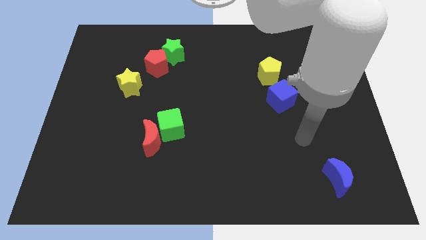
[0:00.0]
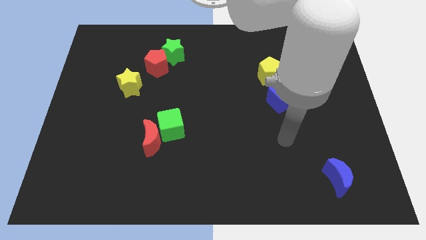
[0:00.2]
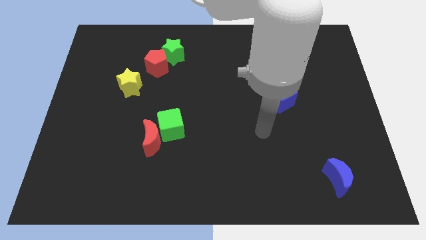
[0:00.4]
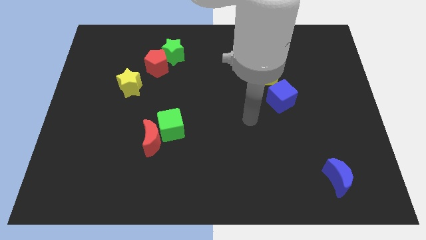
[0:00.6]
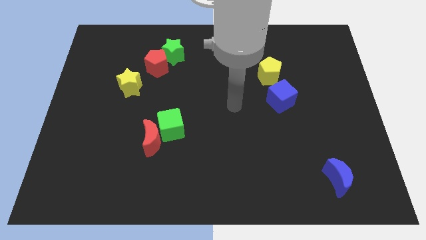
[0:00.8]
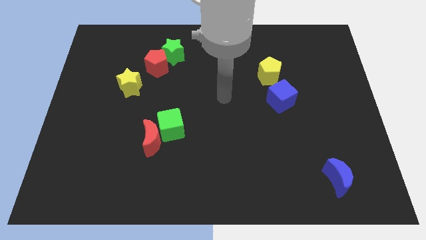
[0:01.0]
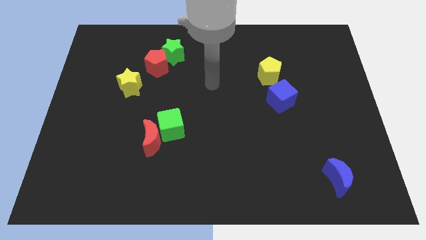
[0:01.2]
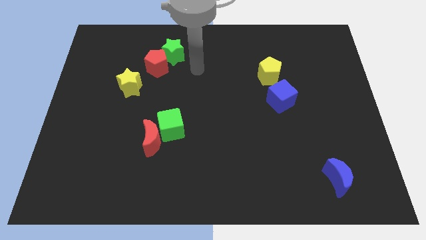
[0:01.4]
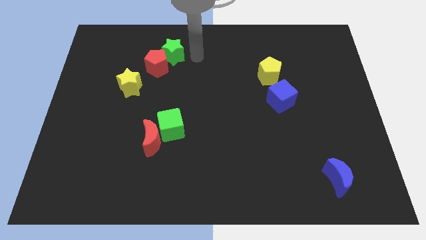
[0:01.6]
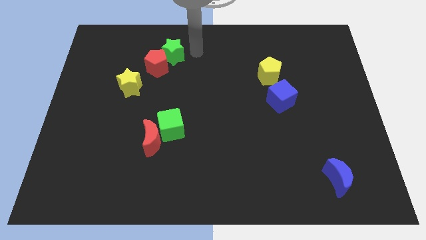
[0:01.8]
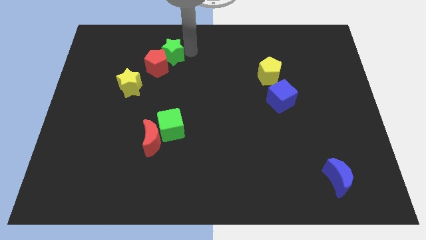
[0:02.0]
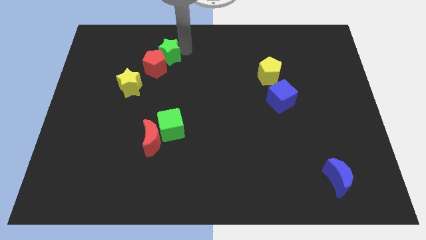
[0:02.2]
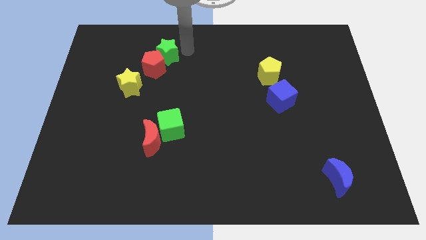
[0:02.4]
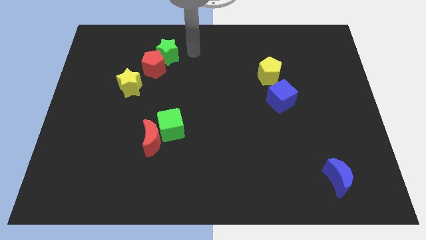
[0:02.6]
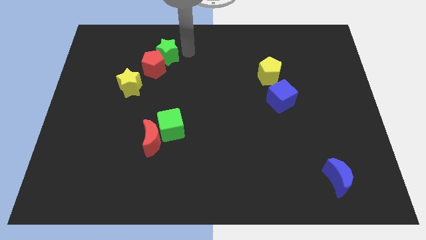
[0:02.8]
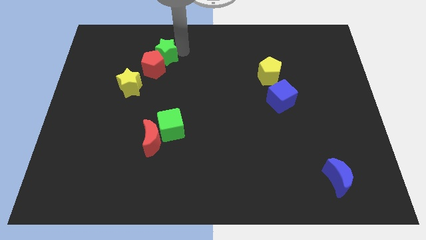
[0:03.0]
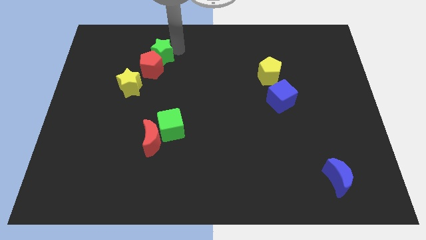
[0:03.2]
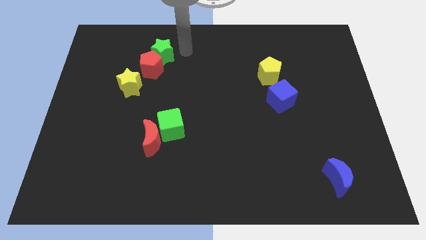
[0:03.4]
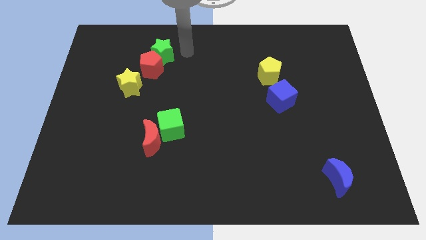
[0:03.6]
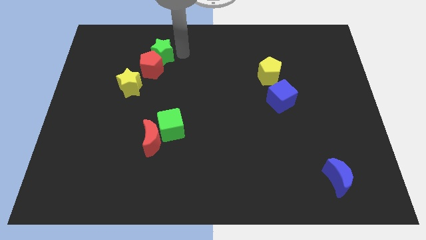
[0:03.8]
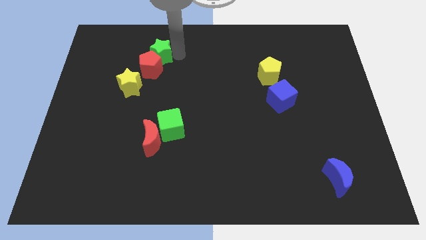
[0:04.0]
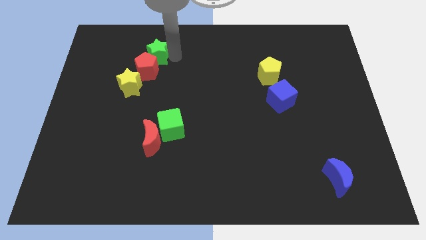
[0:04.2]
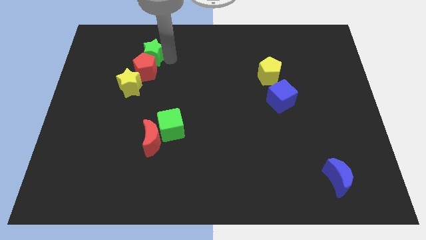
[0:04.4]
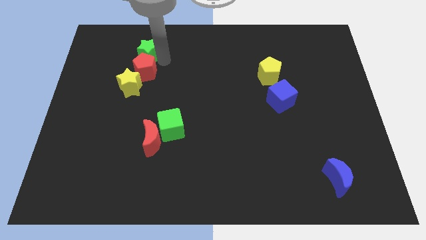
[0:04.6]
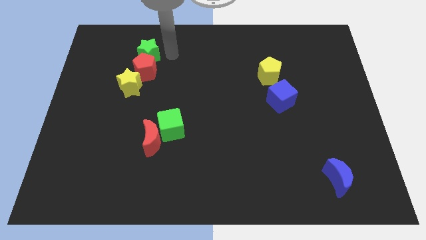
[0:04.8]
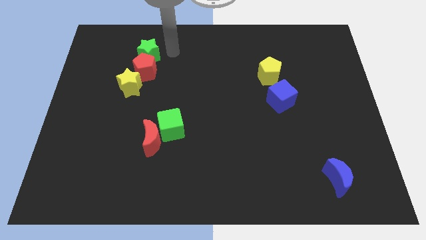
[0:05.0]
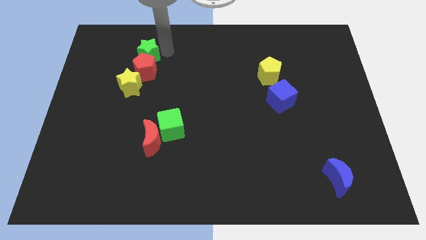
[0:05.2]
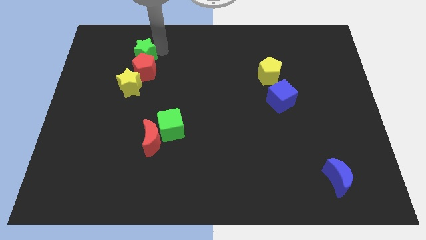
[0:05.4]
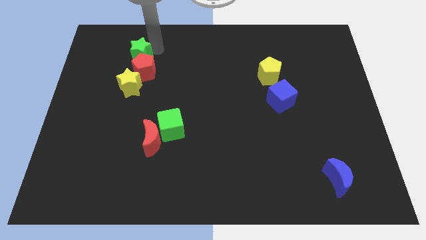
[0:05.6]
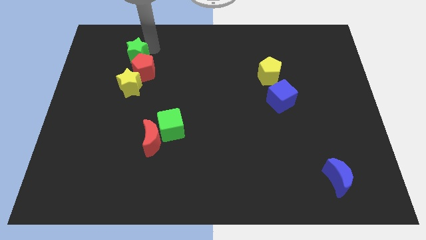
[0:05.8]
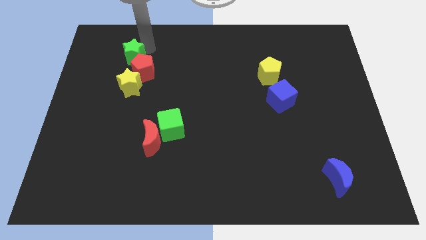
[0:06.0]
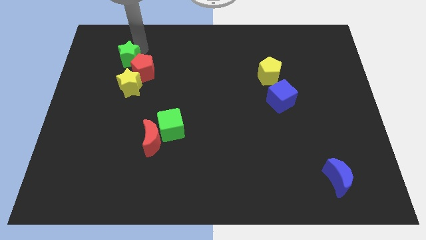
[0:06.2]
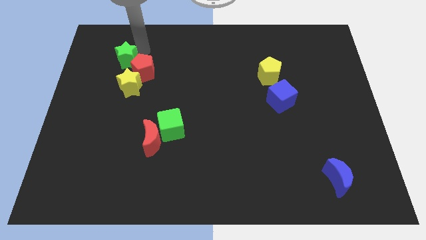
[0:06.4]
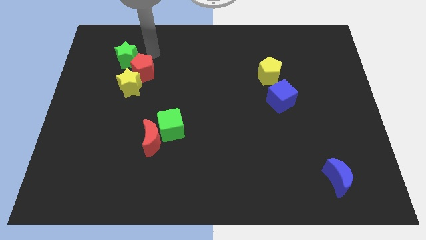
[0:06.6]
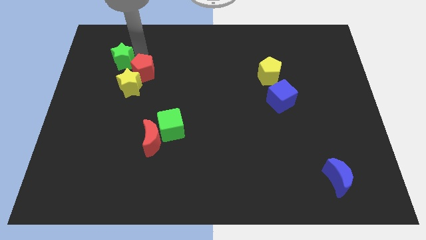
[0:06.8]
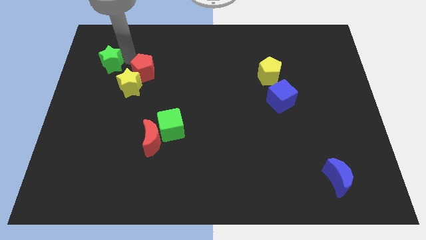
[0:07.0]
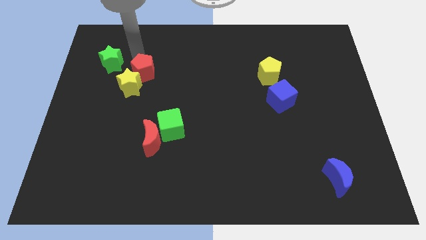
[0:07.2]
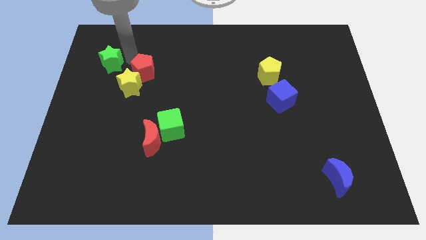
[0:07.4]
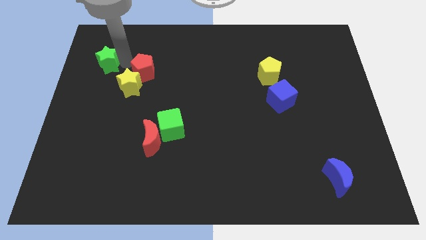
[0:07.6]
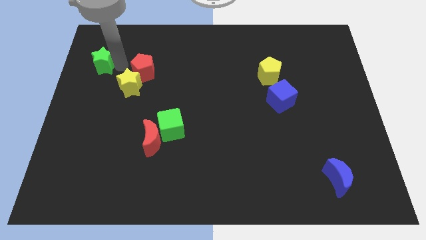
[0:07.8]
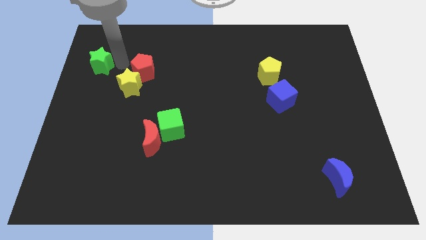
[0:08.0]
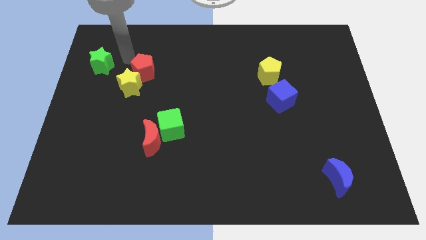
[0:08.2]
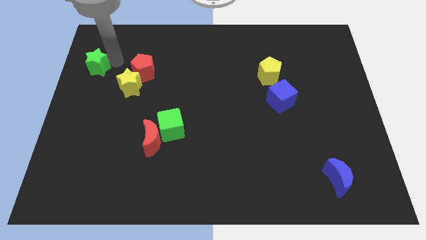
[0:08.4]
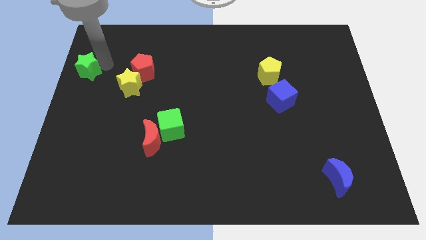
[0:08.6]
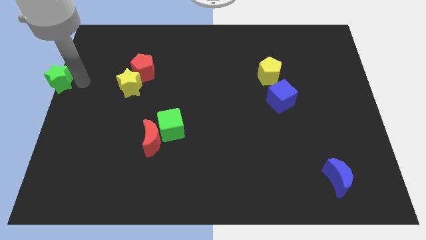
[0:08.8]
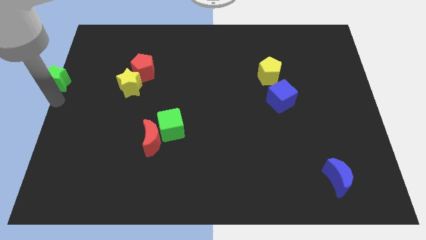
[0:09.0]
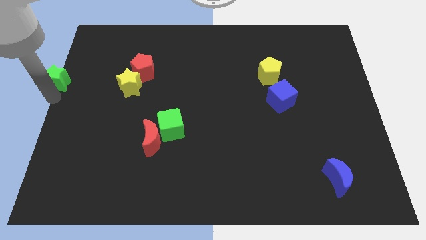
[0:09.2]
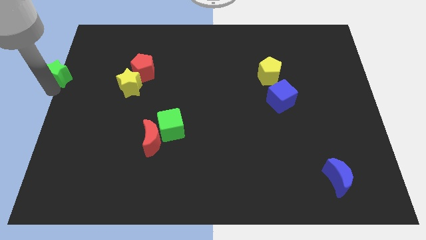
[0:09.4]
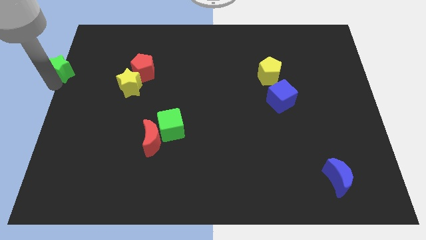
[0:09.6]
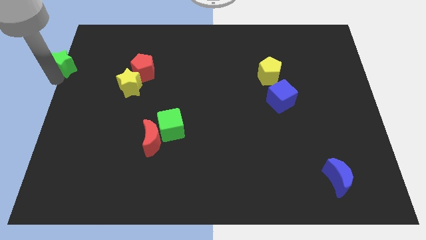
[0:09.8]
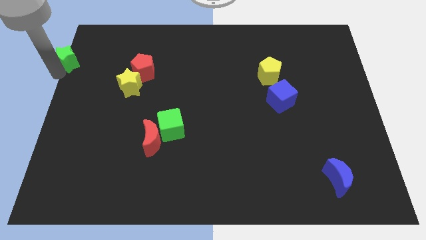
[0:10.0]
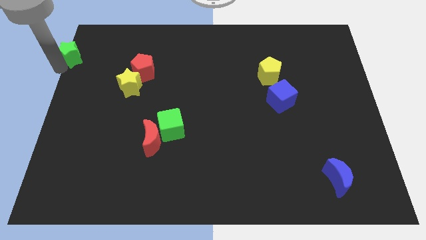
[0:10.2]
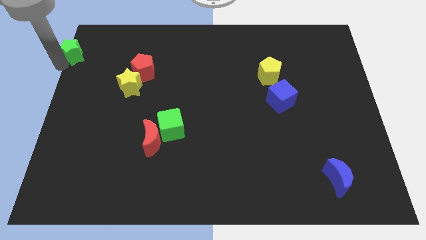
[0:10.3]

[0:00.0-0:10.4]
slide the green star to the top left
